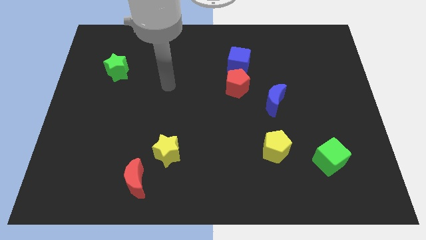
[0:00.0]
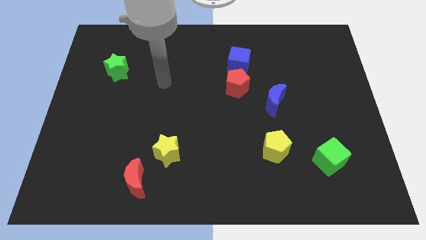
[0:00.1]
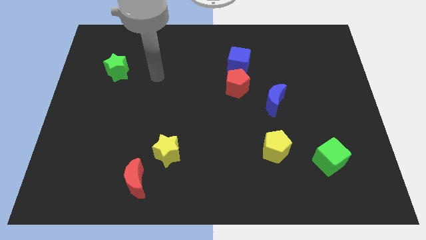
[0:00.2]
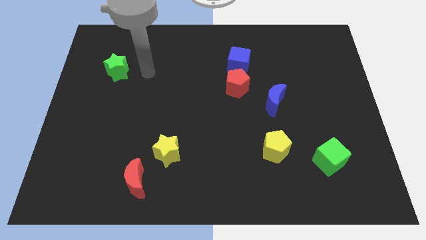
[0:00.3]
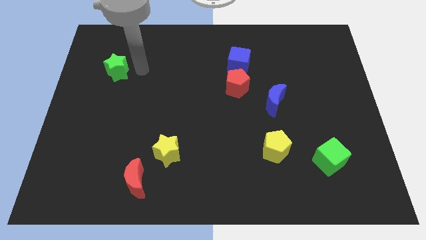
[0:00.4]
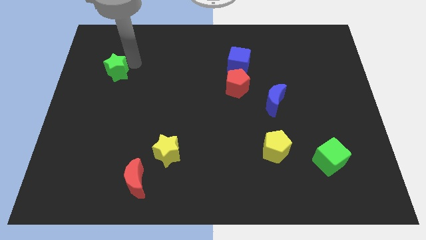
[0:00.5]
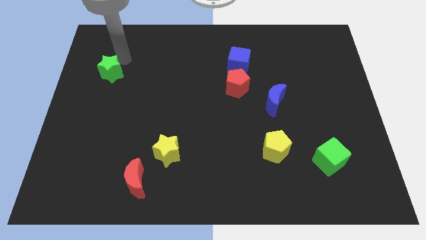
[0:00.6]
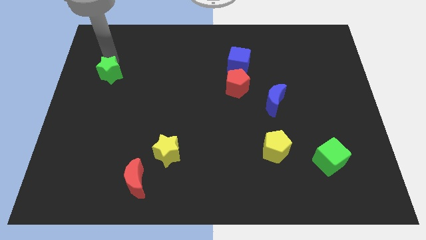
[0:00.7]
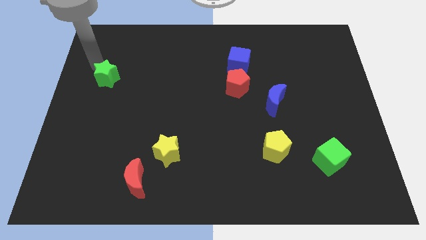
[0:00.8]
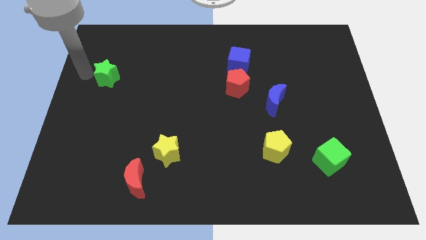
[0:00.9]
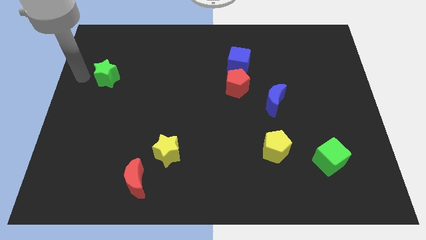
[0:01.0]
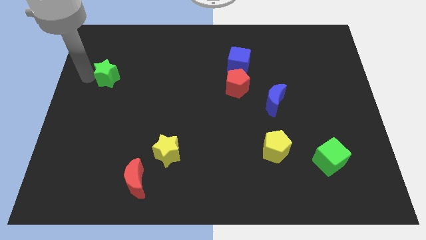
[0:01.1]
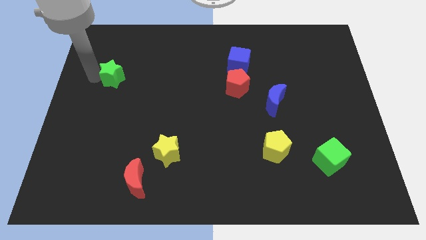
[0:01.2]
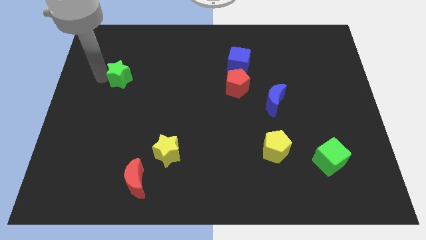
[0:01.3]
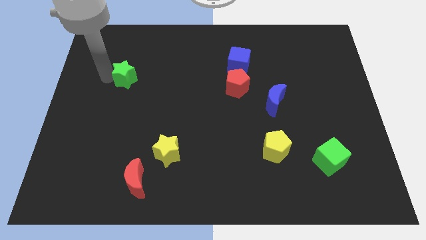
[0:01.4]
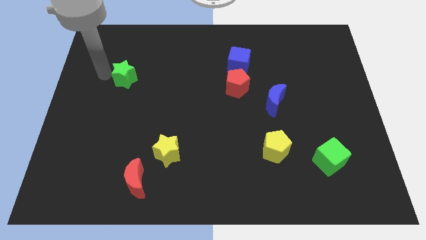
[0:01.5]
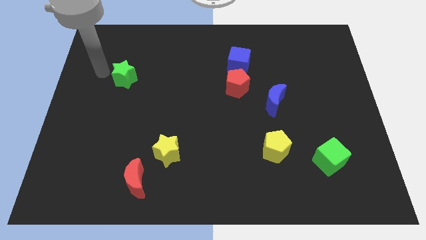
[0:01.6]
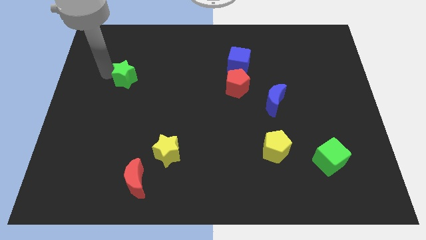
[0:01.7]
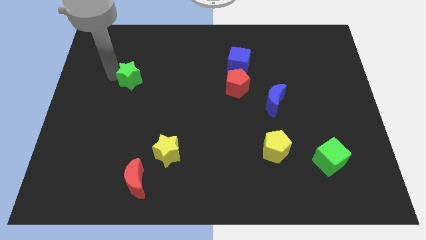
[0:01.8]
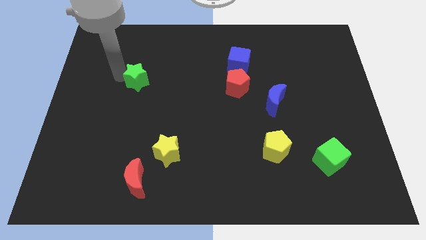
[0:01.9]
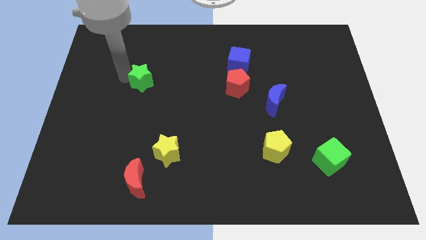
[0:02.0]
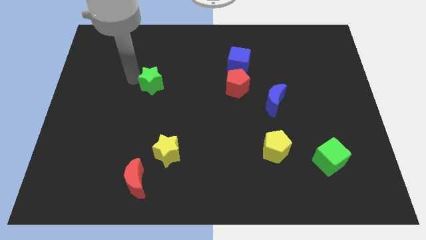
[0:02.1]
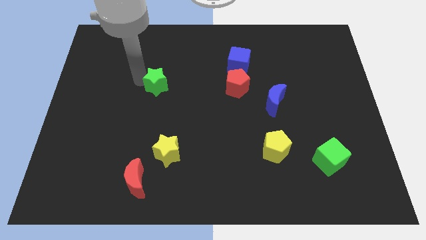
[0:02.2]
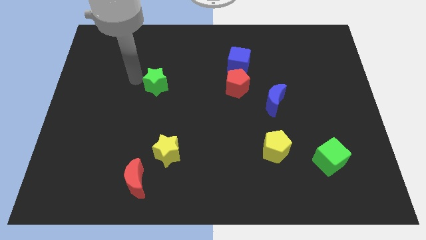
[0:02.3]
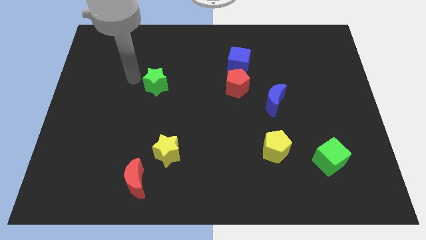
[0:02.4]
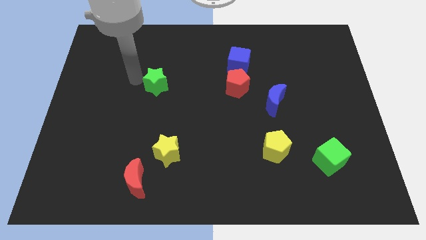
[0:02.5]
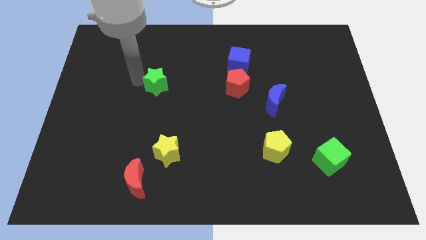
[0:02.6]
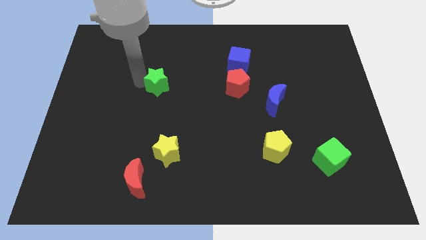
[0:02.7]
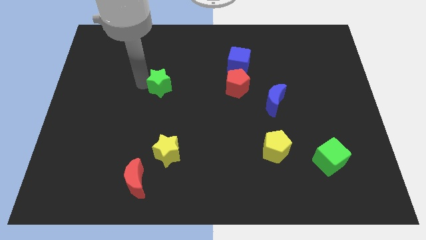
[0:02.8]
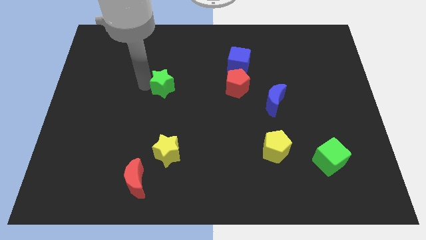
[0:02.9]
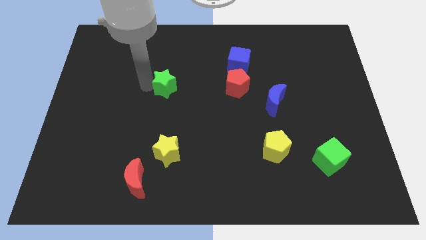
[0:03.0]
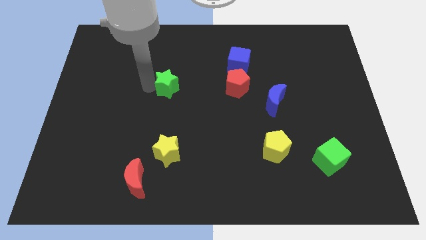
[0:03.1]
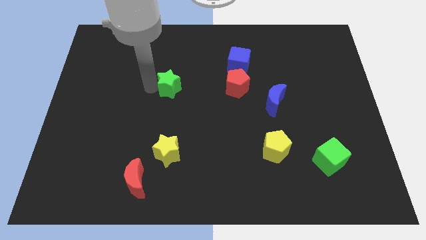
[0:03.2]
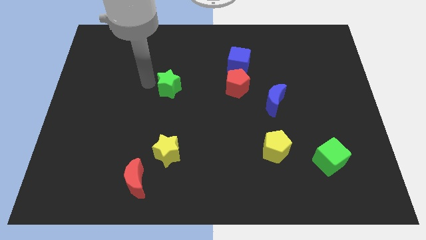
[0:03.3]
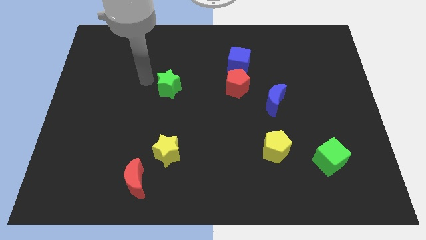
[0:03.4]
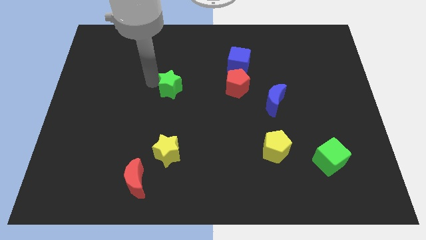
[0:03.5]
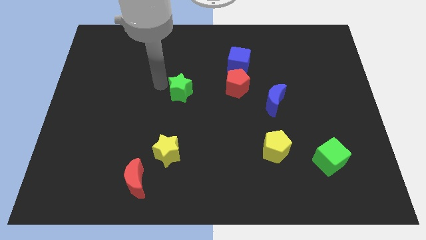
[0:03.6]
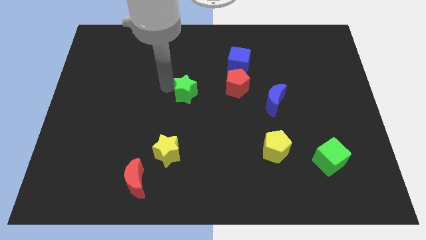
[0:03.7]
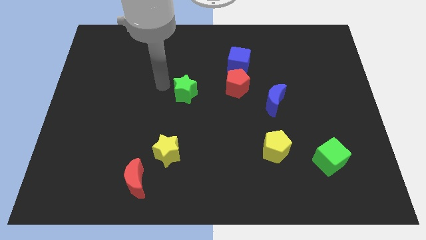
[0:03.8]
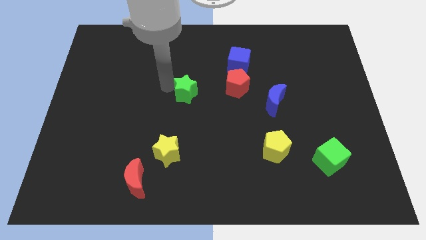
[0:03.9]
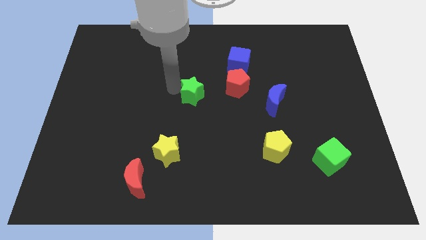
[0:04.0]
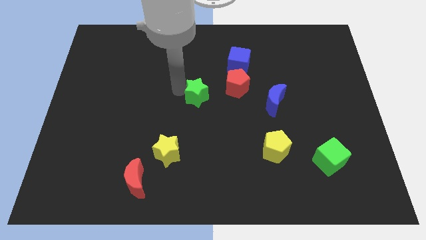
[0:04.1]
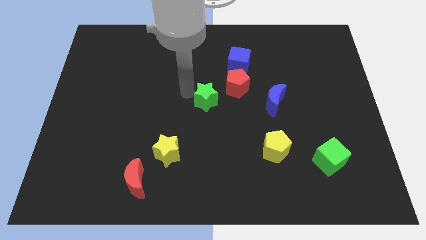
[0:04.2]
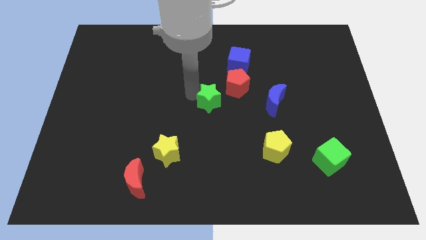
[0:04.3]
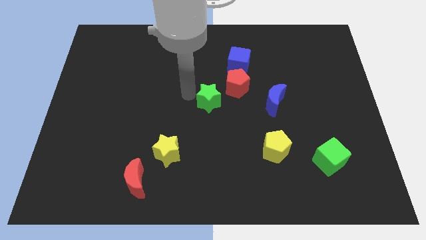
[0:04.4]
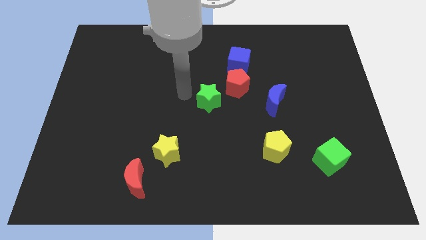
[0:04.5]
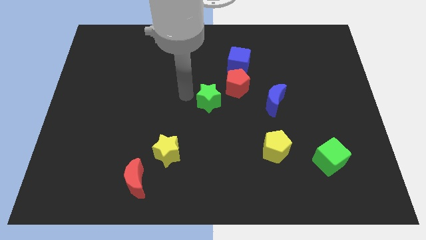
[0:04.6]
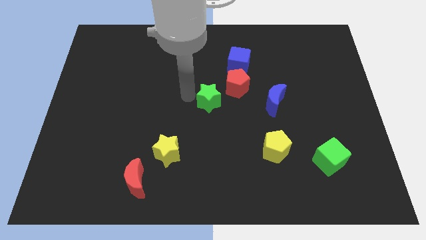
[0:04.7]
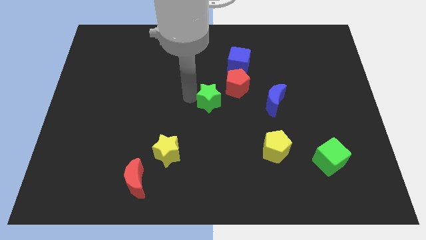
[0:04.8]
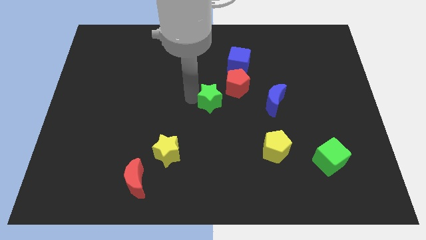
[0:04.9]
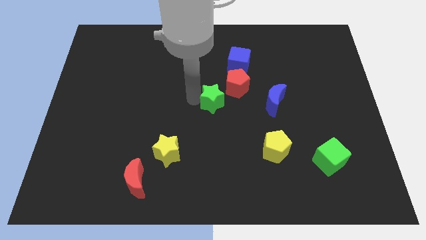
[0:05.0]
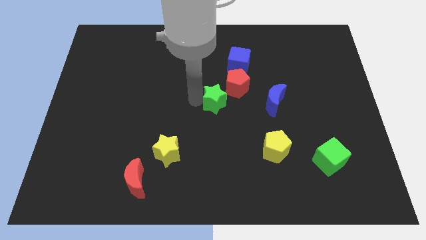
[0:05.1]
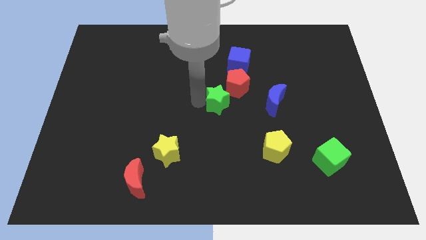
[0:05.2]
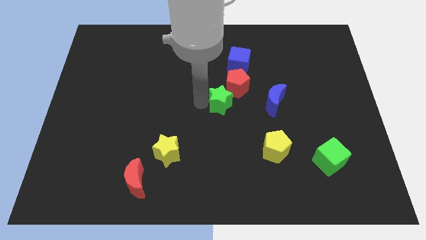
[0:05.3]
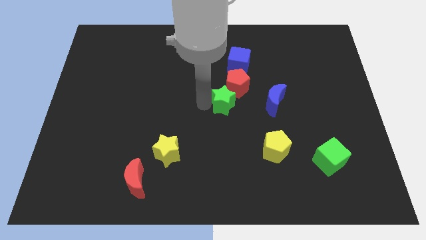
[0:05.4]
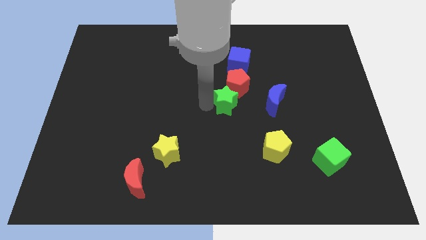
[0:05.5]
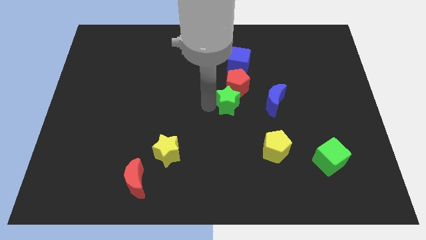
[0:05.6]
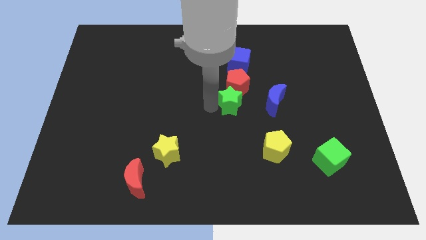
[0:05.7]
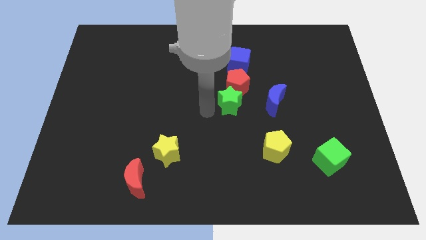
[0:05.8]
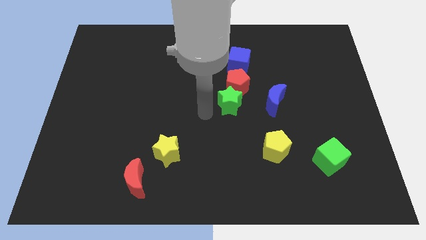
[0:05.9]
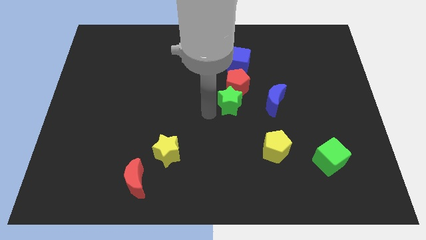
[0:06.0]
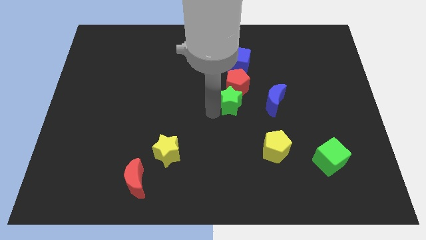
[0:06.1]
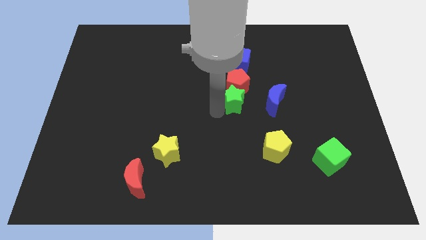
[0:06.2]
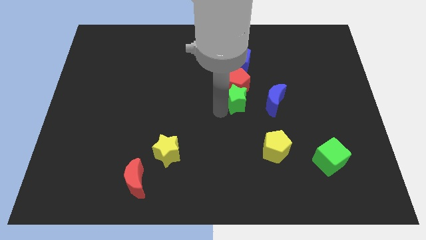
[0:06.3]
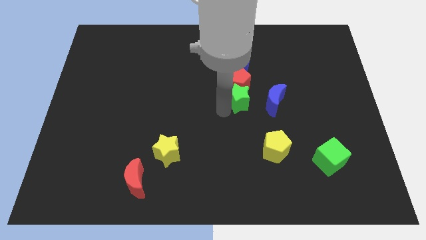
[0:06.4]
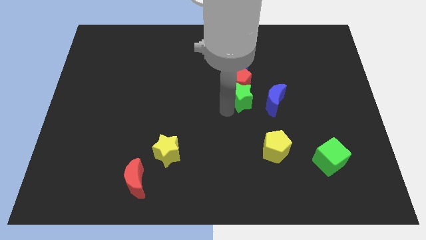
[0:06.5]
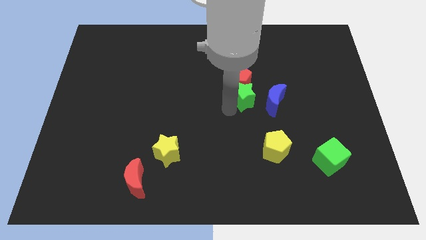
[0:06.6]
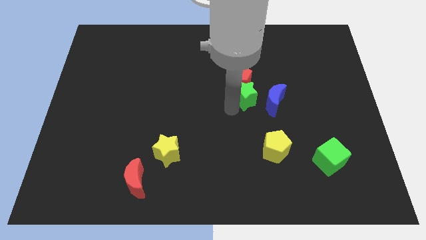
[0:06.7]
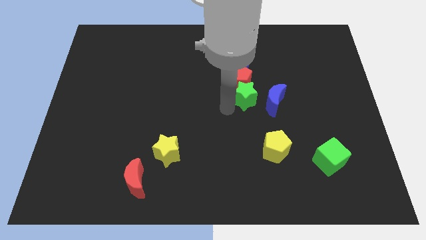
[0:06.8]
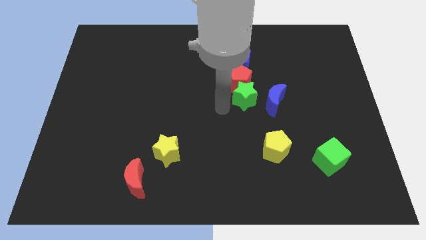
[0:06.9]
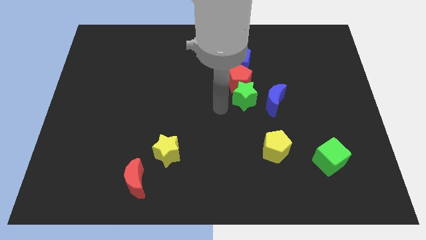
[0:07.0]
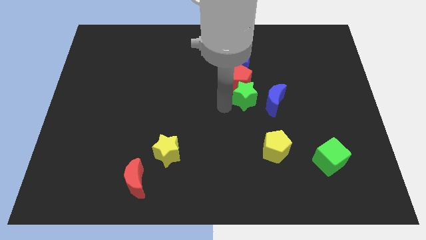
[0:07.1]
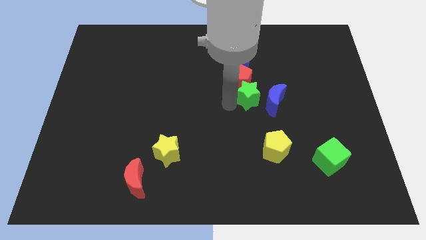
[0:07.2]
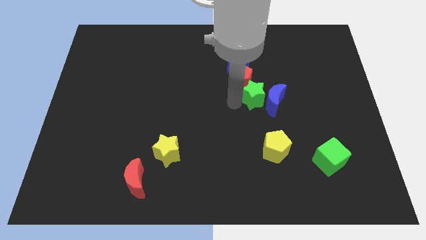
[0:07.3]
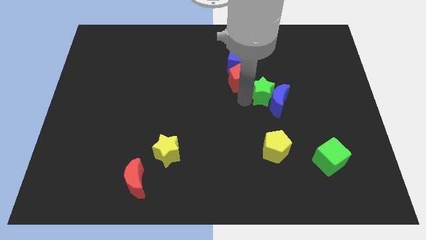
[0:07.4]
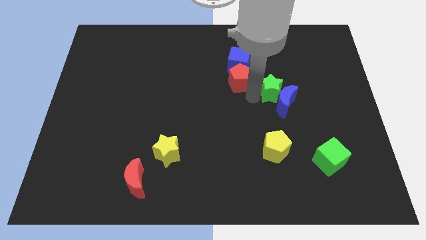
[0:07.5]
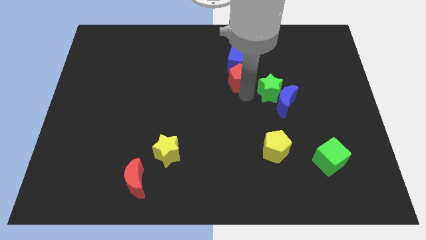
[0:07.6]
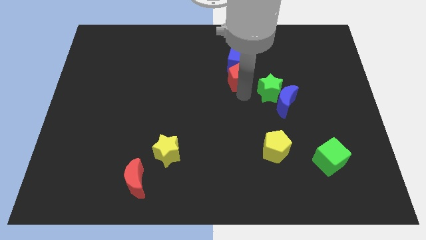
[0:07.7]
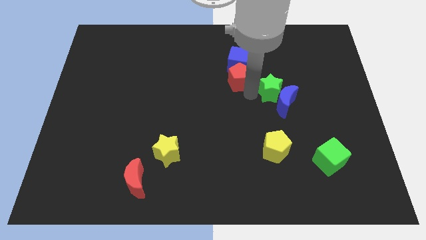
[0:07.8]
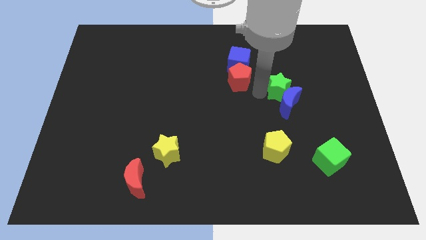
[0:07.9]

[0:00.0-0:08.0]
slide the green star to the top right side of the blue moon
